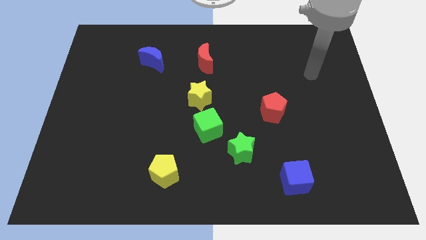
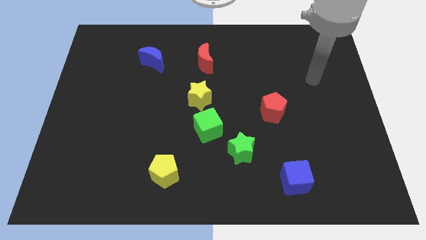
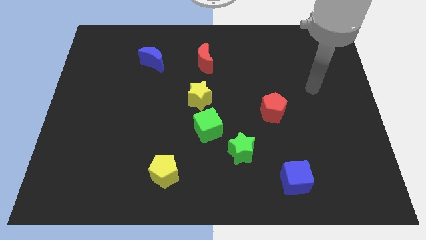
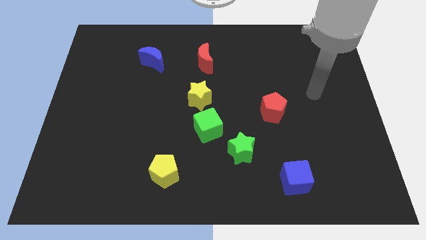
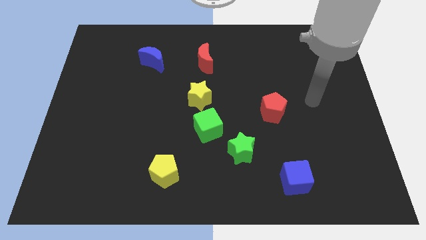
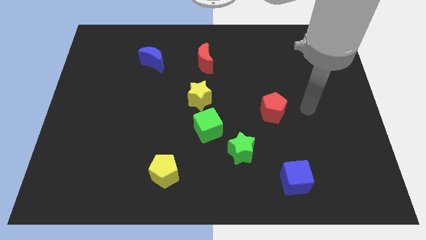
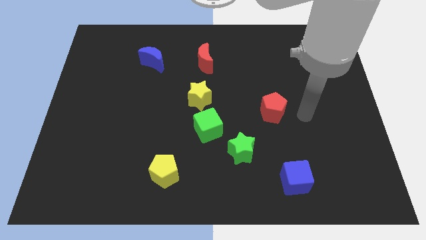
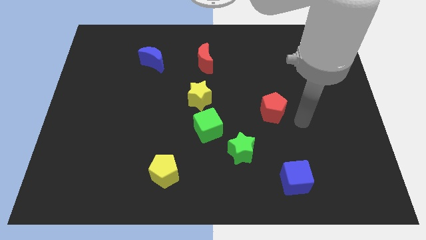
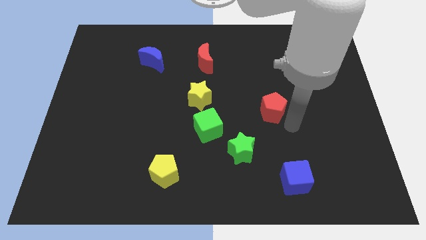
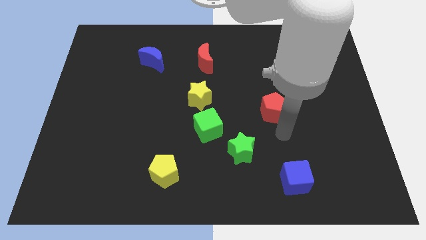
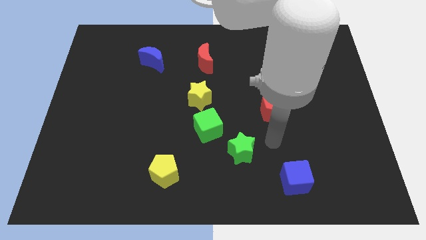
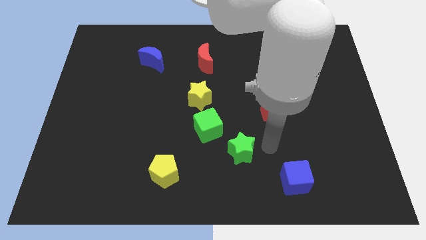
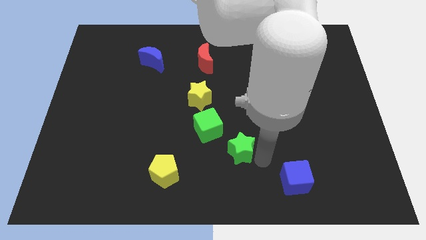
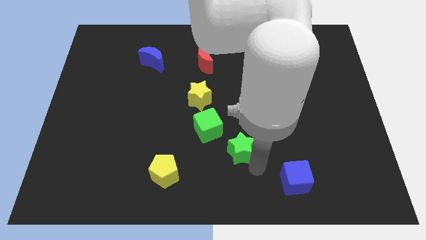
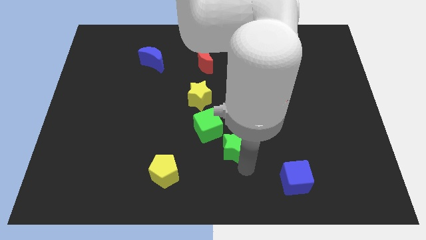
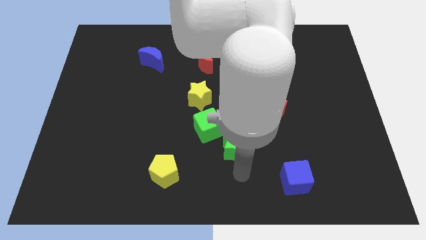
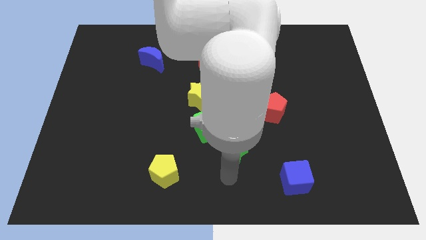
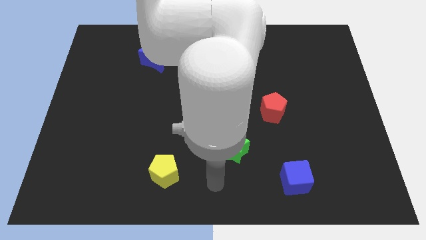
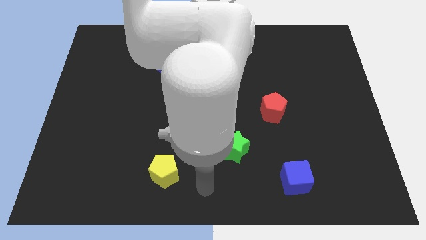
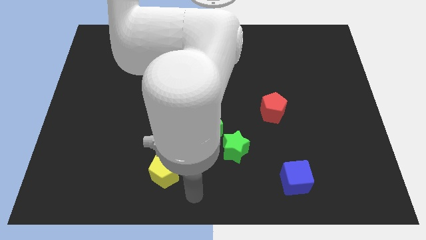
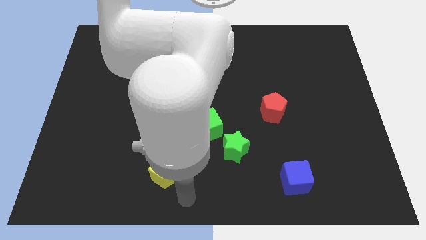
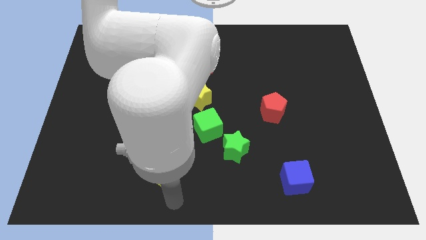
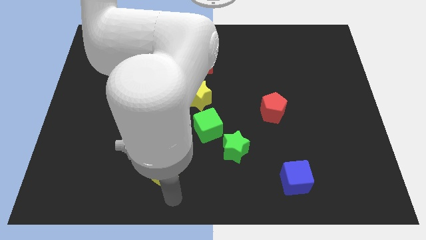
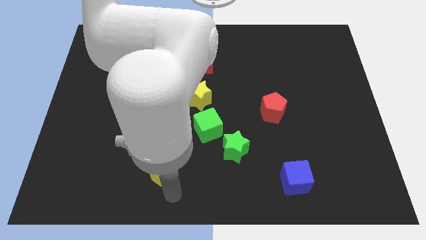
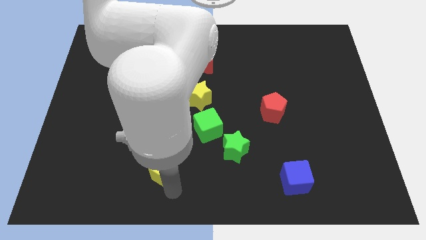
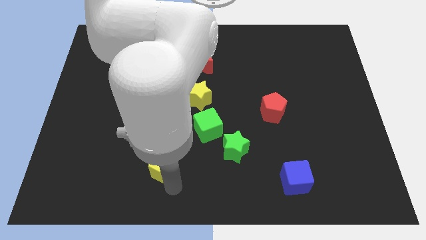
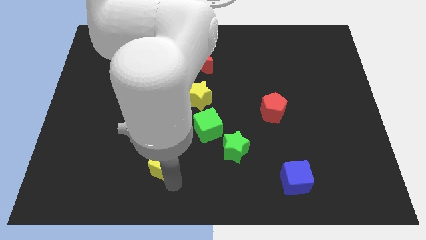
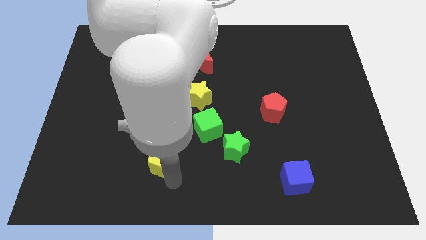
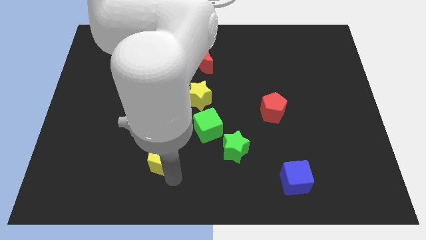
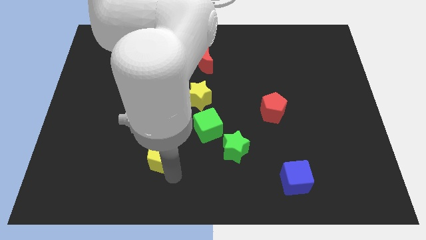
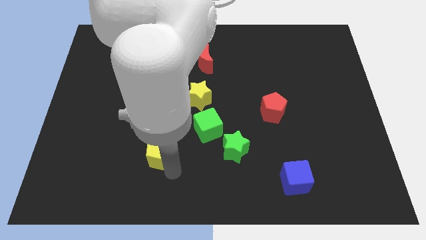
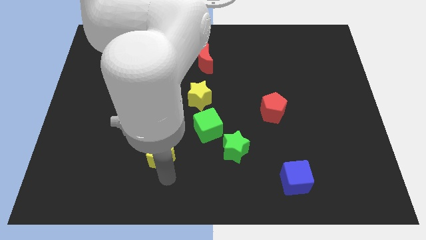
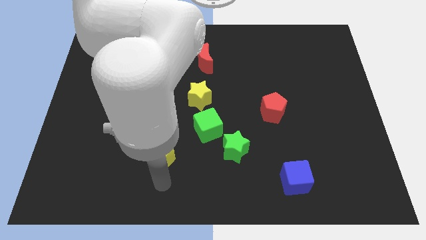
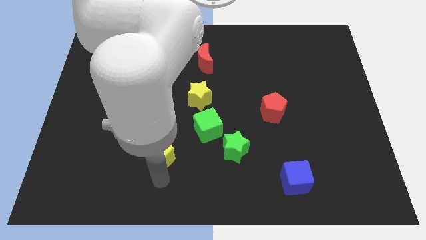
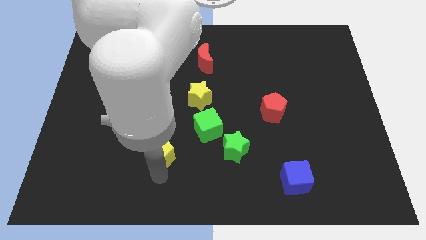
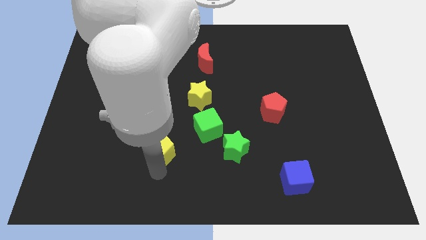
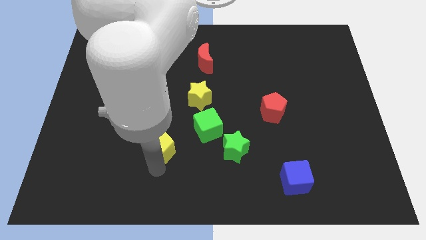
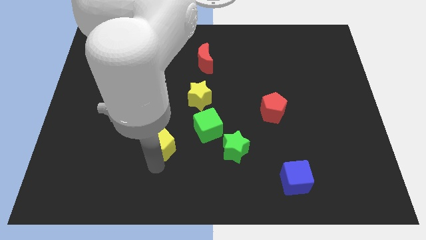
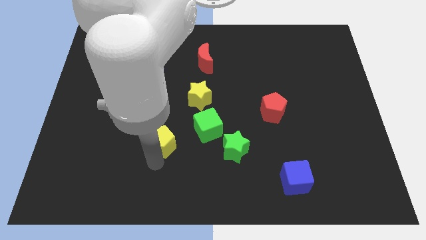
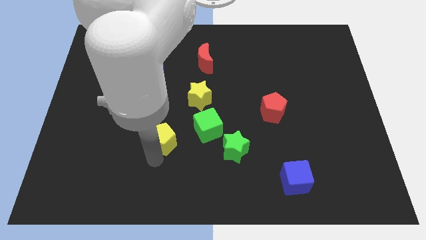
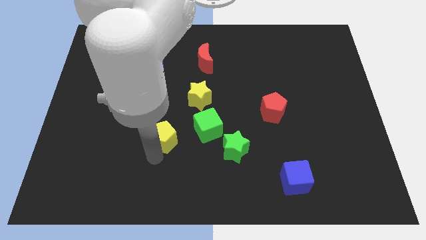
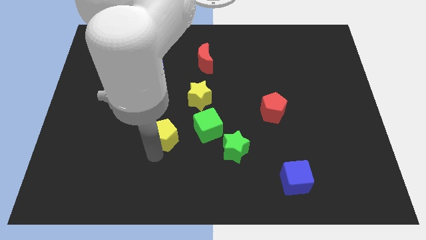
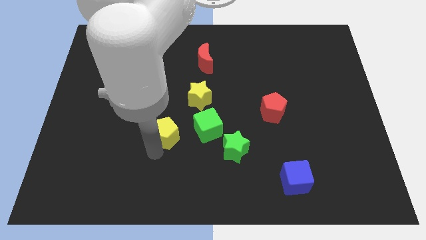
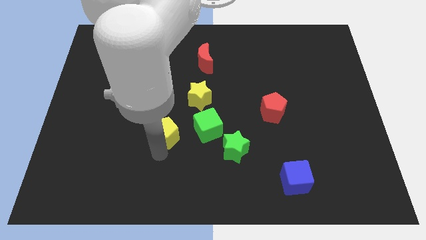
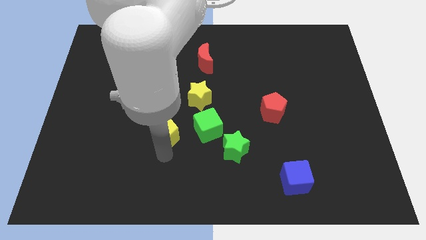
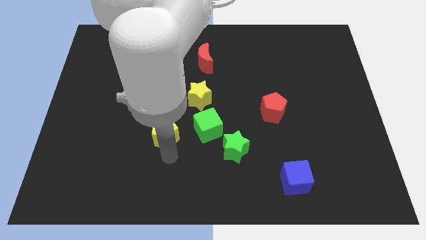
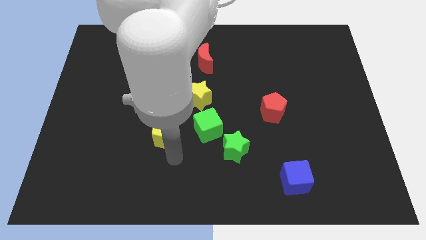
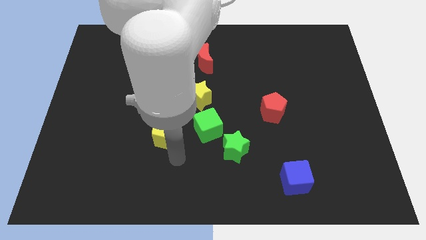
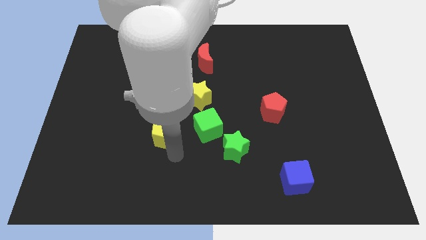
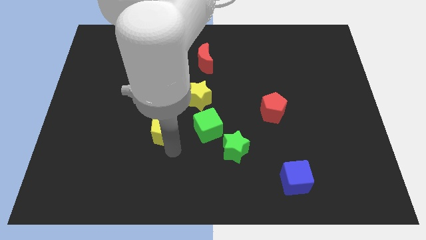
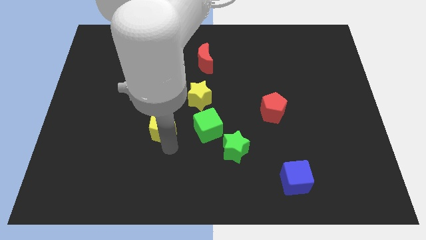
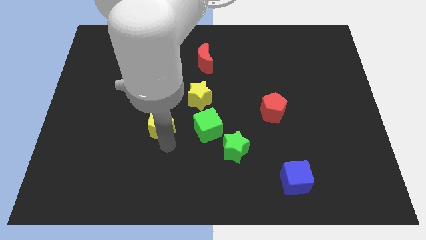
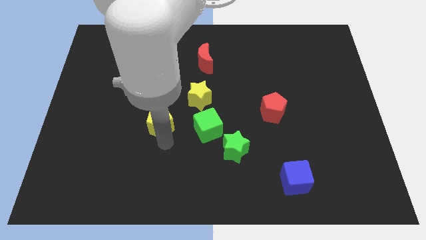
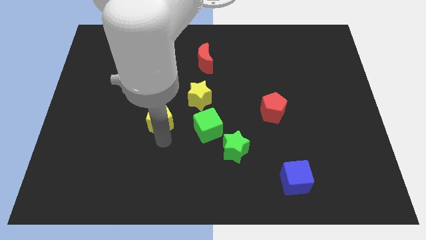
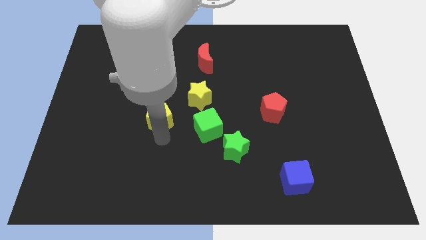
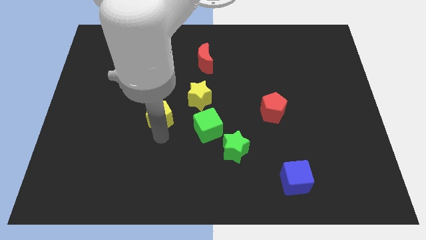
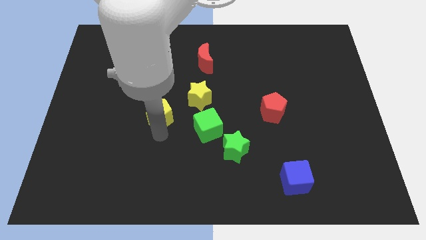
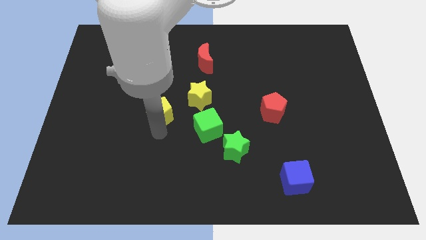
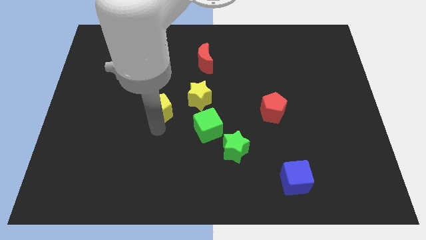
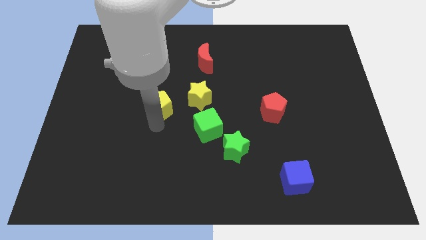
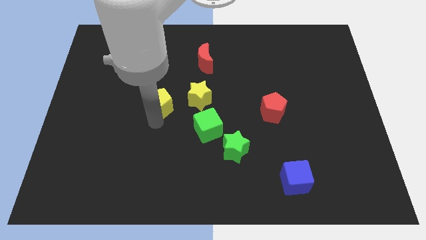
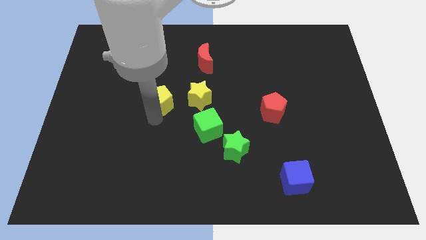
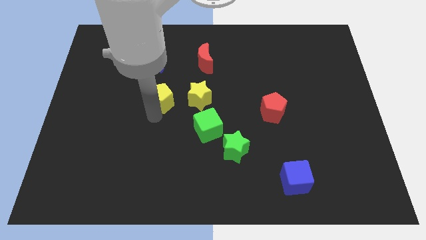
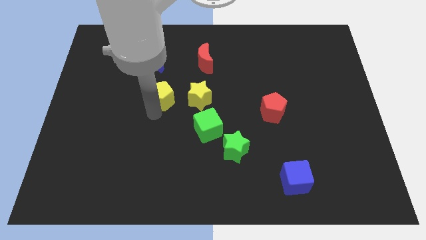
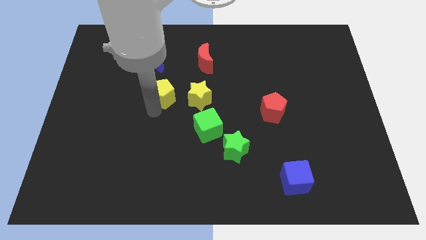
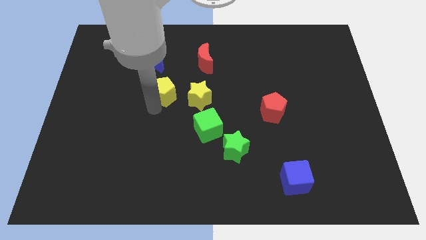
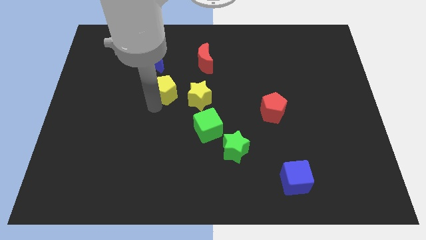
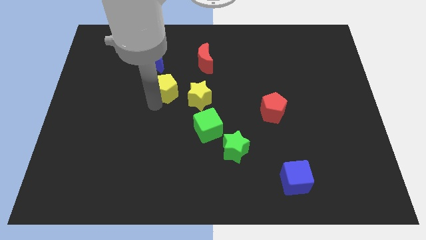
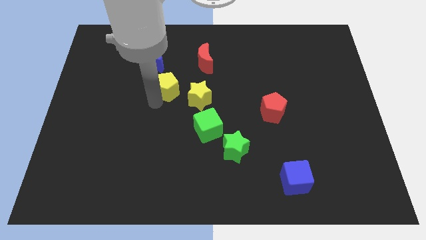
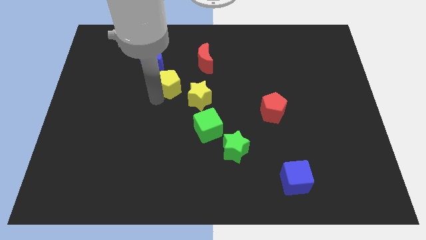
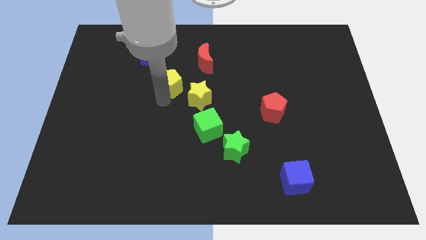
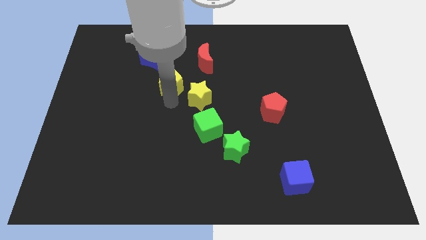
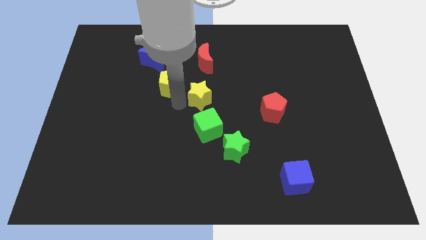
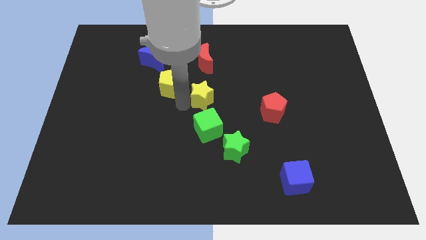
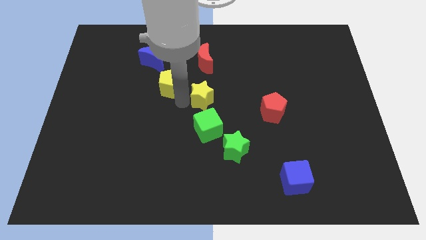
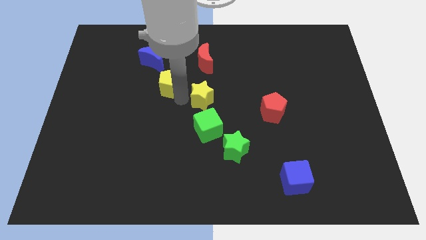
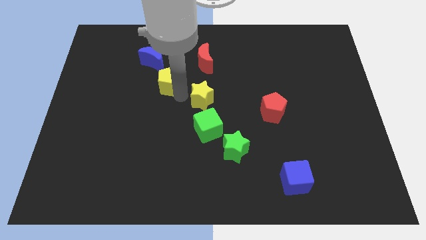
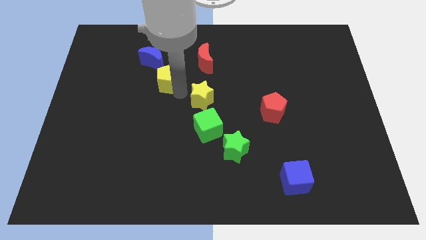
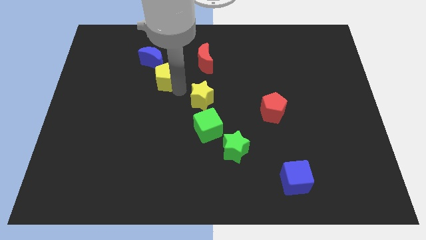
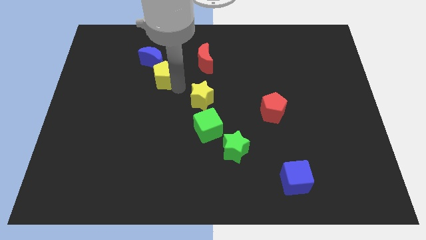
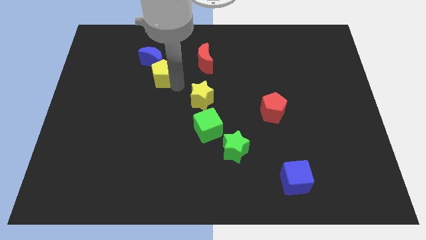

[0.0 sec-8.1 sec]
put the yellow pentagon to the blue moon
